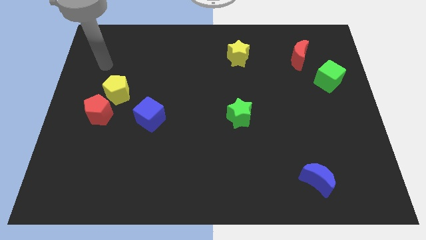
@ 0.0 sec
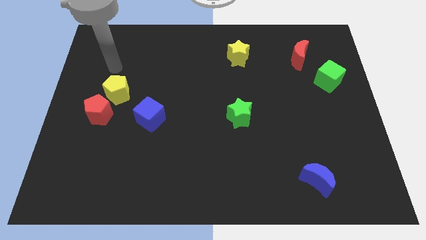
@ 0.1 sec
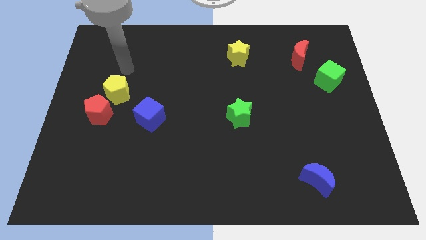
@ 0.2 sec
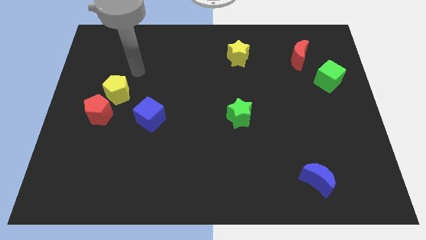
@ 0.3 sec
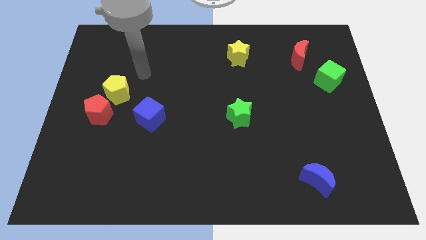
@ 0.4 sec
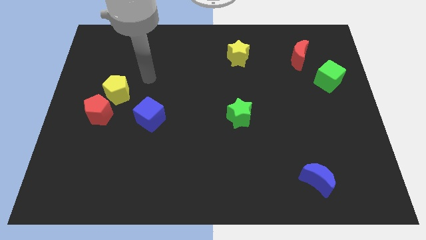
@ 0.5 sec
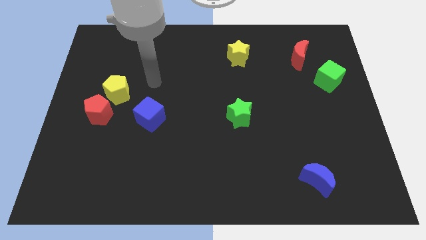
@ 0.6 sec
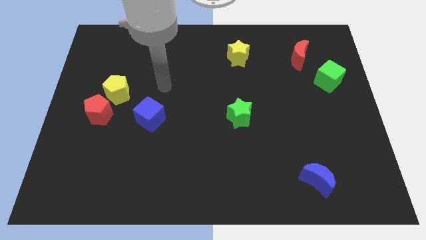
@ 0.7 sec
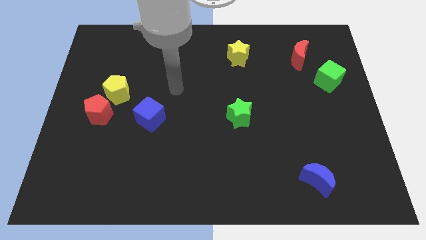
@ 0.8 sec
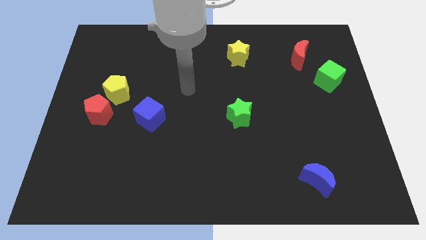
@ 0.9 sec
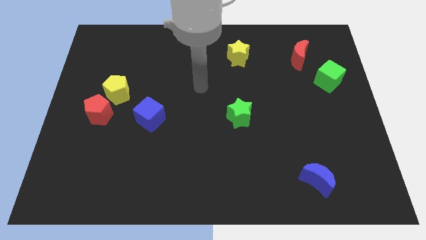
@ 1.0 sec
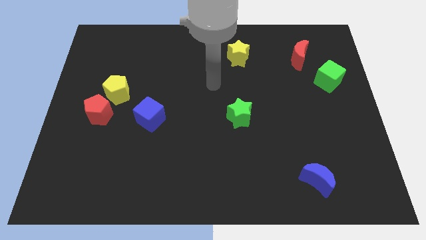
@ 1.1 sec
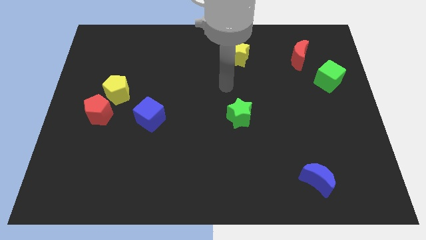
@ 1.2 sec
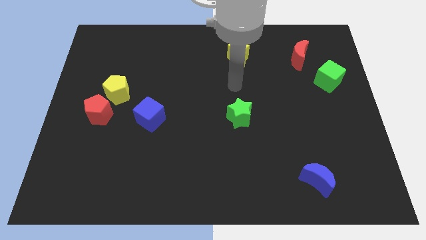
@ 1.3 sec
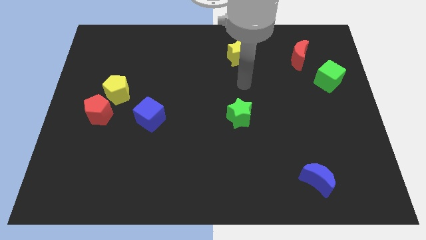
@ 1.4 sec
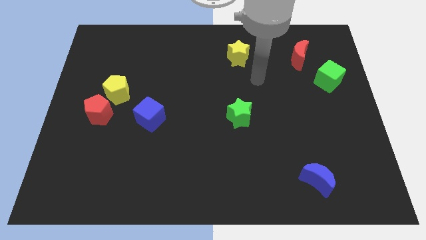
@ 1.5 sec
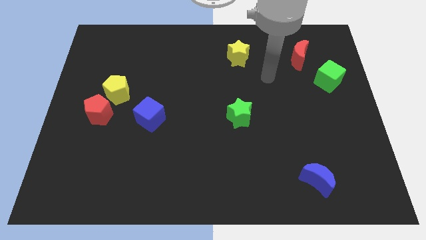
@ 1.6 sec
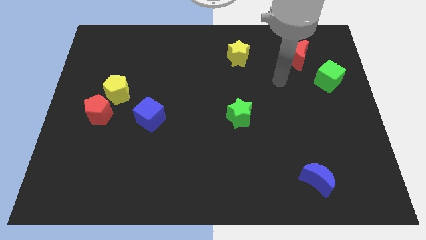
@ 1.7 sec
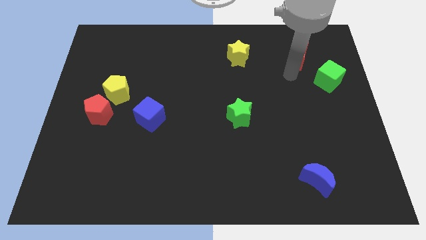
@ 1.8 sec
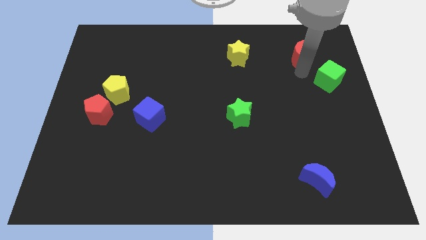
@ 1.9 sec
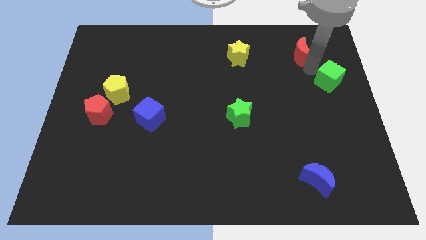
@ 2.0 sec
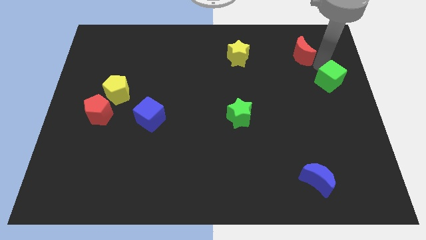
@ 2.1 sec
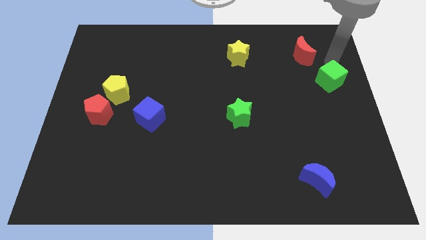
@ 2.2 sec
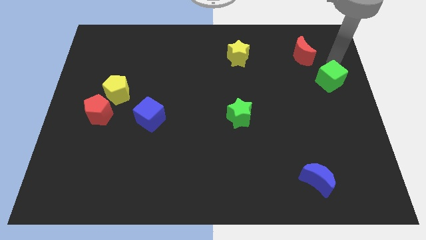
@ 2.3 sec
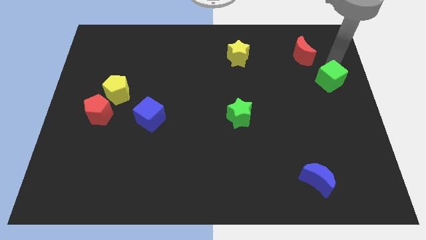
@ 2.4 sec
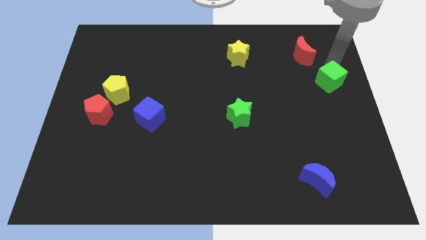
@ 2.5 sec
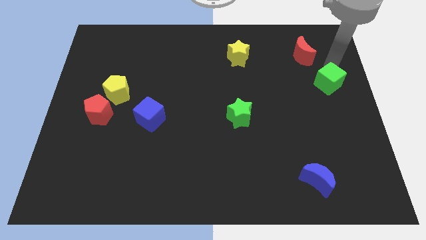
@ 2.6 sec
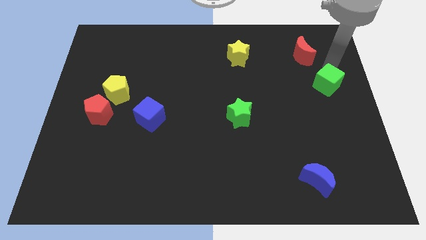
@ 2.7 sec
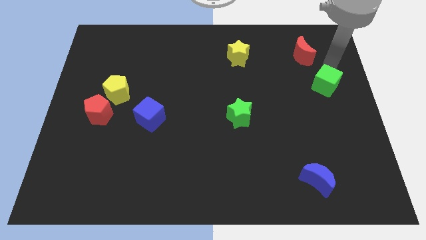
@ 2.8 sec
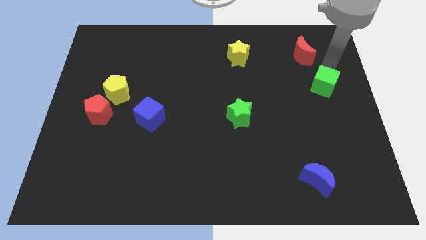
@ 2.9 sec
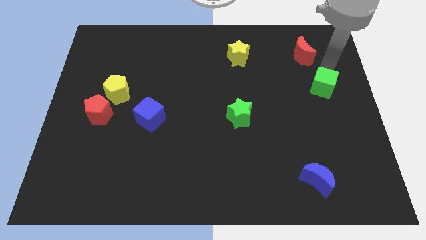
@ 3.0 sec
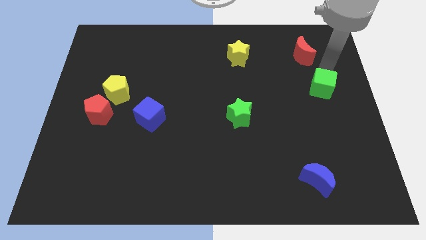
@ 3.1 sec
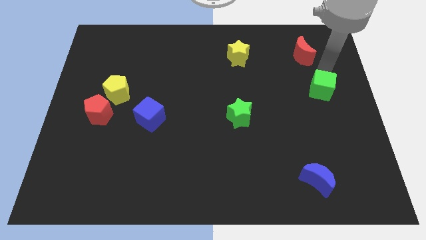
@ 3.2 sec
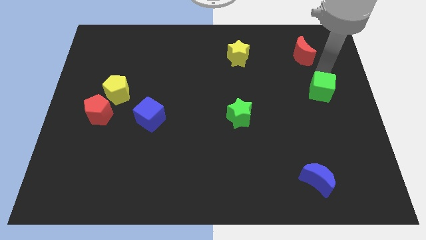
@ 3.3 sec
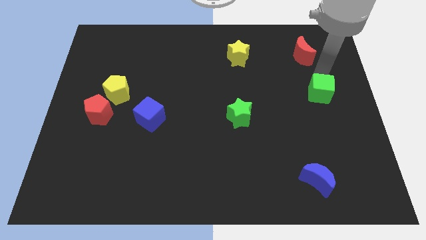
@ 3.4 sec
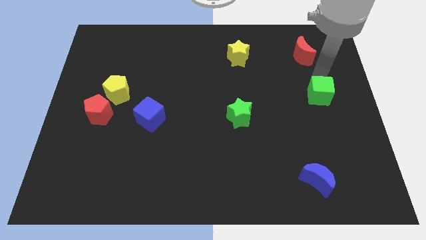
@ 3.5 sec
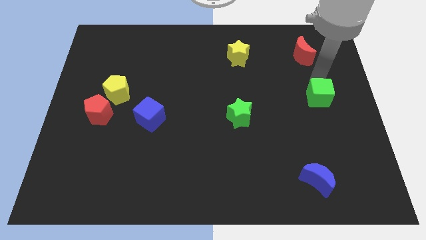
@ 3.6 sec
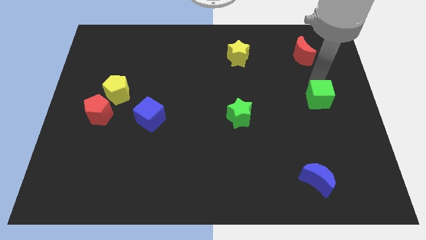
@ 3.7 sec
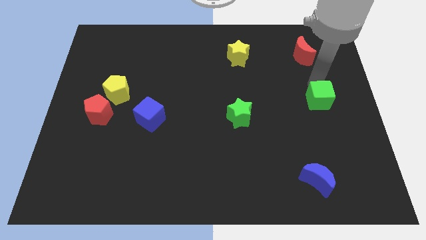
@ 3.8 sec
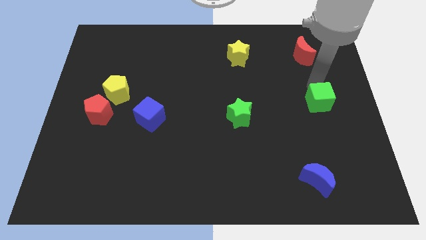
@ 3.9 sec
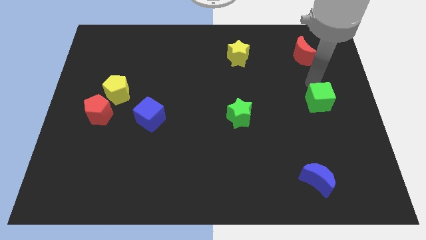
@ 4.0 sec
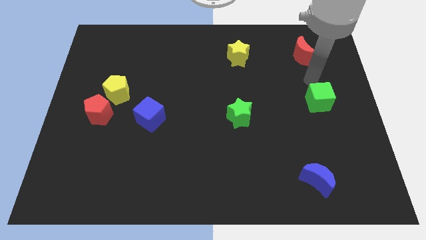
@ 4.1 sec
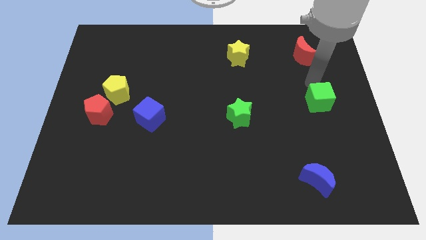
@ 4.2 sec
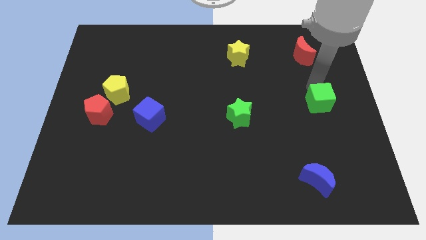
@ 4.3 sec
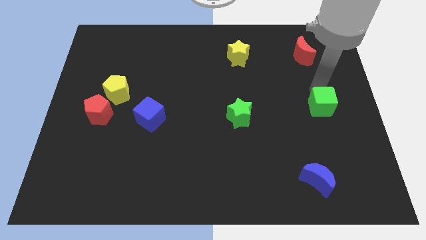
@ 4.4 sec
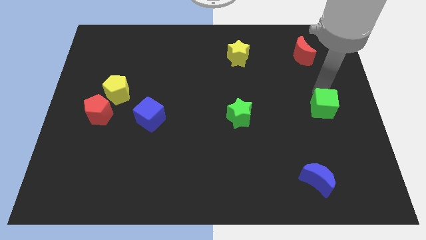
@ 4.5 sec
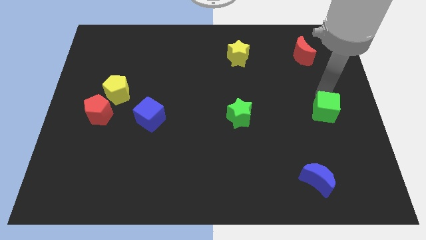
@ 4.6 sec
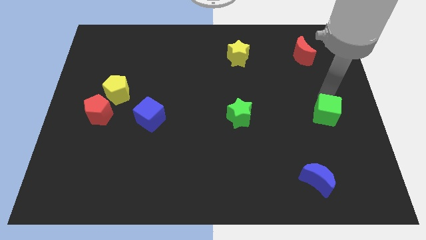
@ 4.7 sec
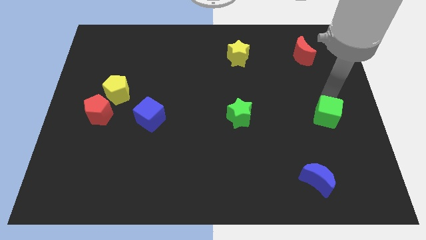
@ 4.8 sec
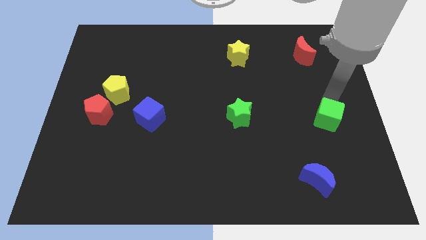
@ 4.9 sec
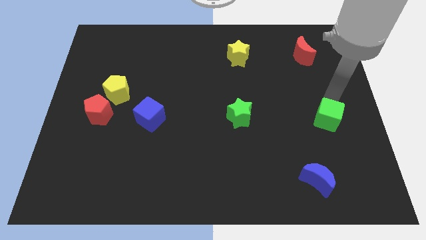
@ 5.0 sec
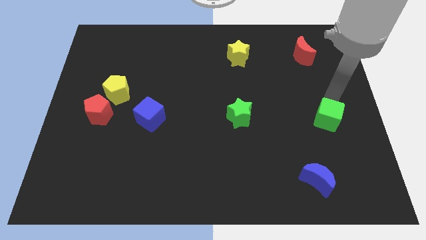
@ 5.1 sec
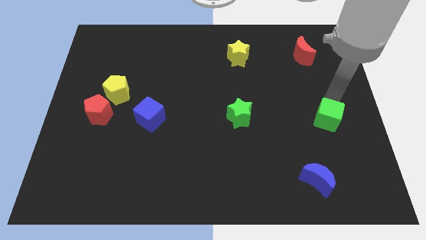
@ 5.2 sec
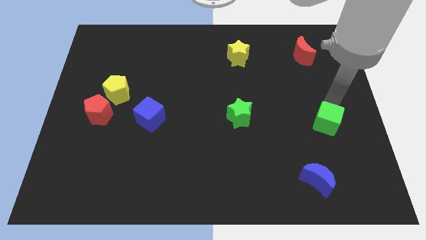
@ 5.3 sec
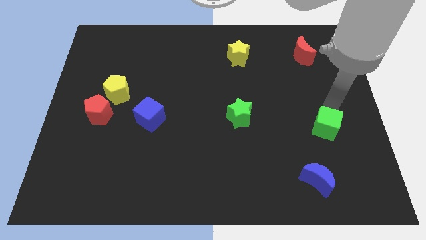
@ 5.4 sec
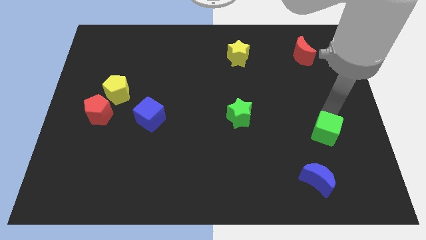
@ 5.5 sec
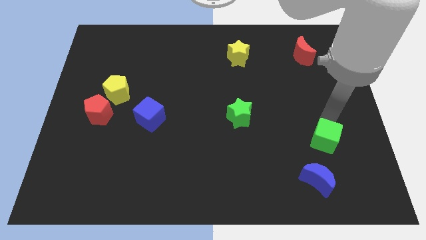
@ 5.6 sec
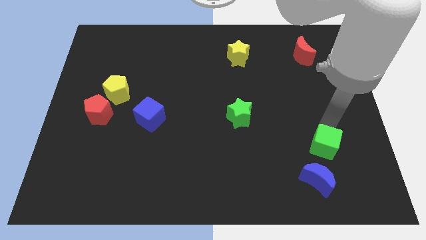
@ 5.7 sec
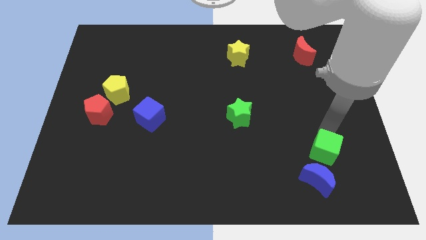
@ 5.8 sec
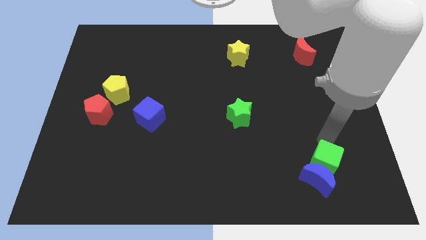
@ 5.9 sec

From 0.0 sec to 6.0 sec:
move the green cube to the blue moon
